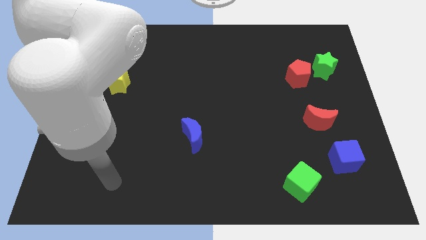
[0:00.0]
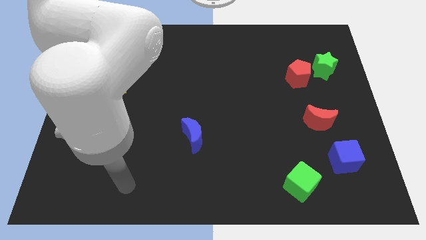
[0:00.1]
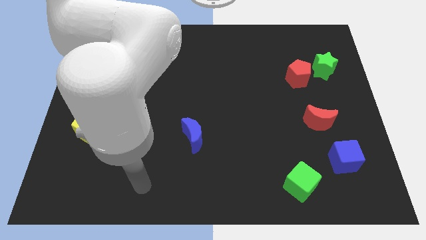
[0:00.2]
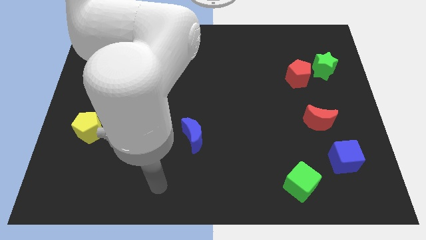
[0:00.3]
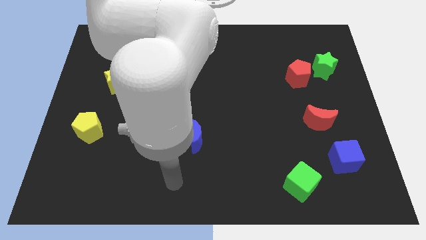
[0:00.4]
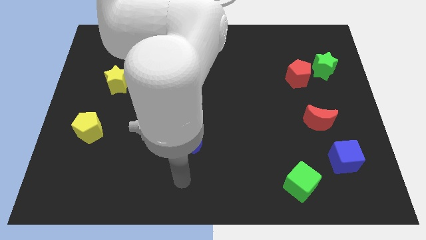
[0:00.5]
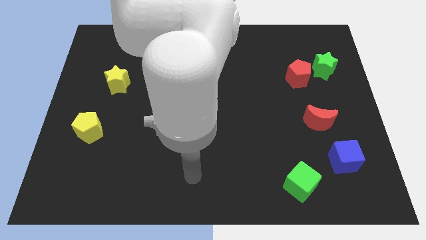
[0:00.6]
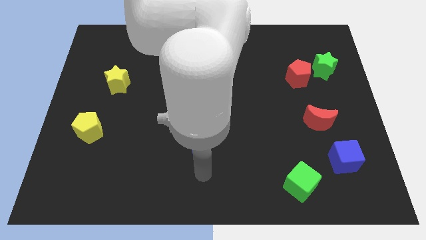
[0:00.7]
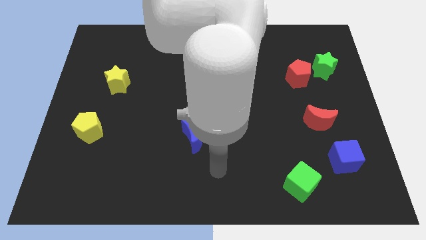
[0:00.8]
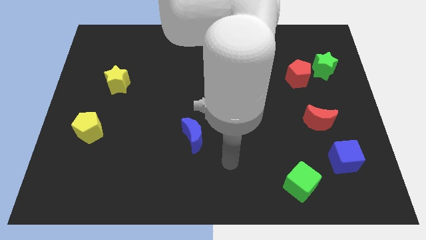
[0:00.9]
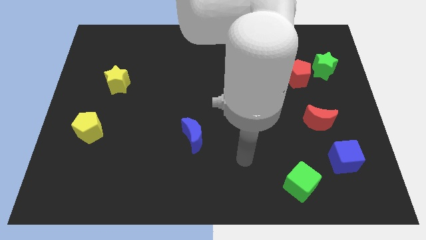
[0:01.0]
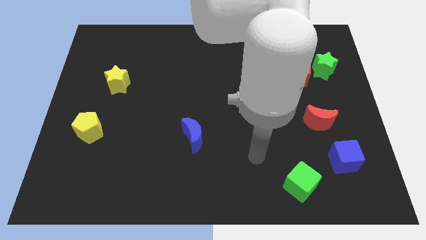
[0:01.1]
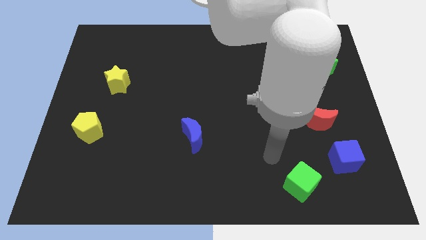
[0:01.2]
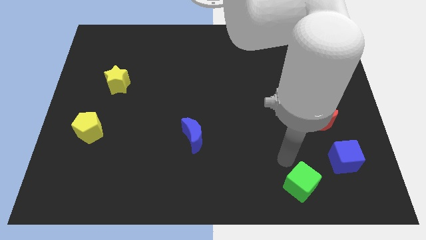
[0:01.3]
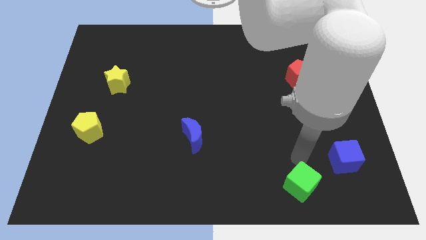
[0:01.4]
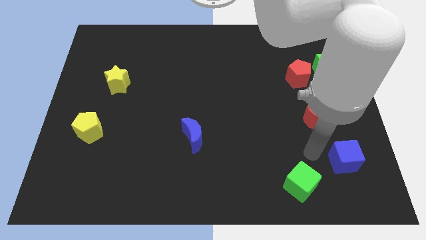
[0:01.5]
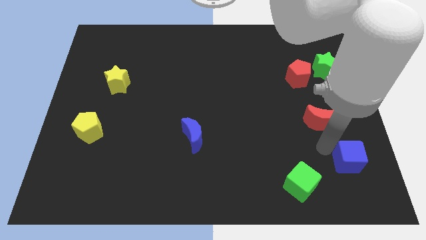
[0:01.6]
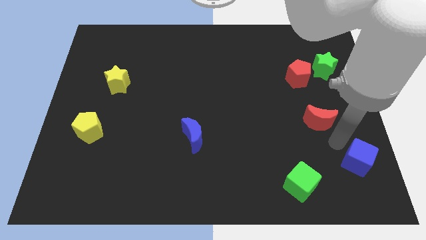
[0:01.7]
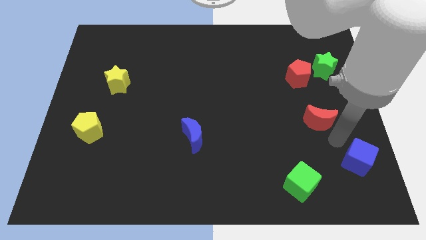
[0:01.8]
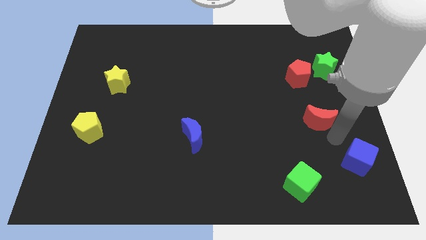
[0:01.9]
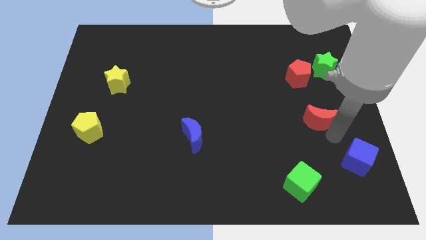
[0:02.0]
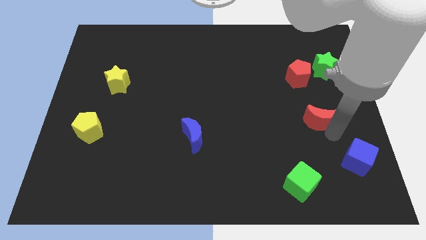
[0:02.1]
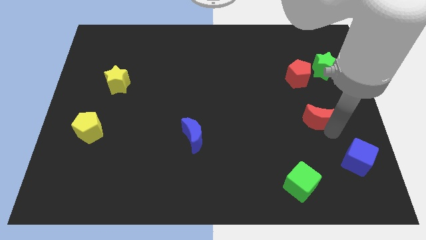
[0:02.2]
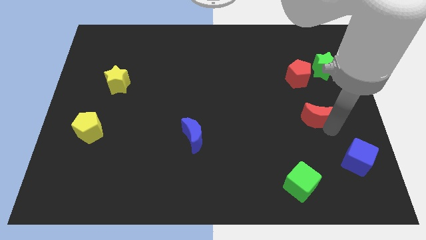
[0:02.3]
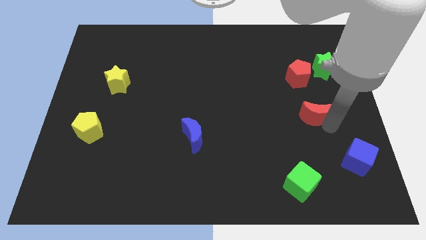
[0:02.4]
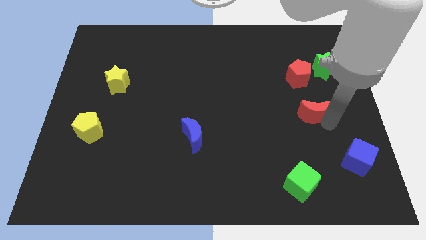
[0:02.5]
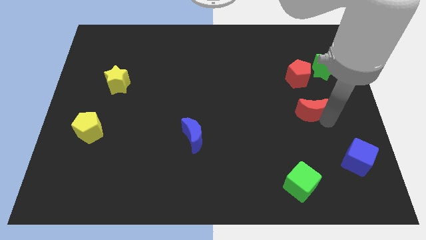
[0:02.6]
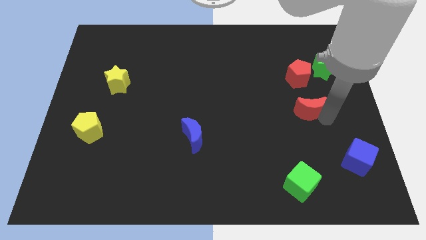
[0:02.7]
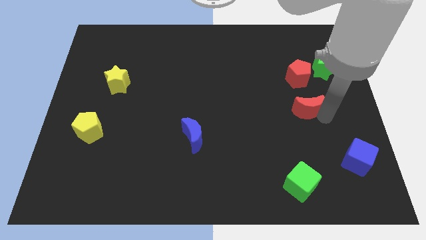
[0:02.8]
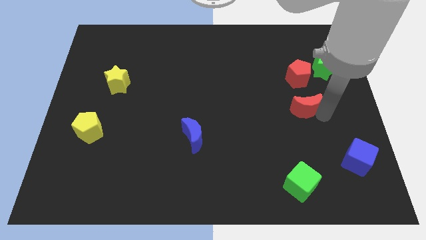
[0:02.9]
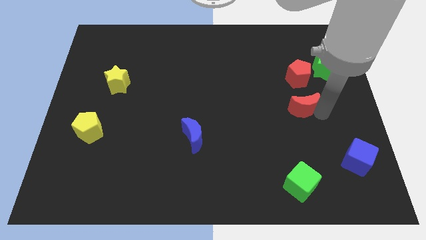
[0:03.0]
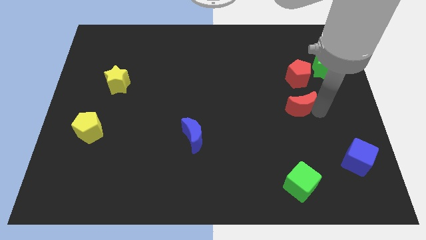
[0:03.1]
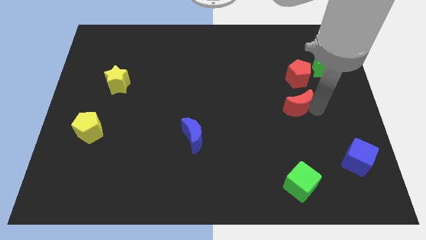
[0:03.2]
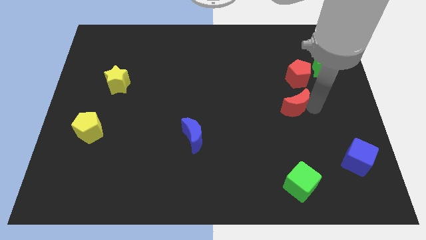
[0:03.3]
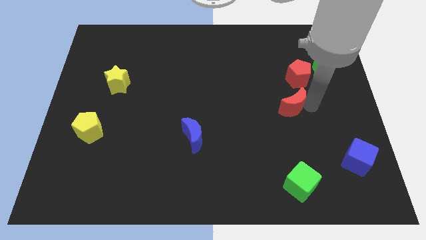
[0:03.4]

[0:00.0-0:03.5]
move the red moon upwards and left diagonally somewhat

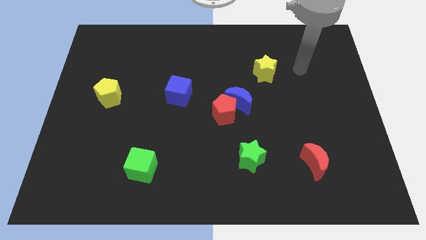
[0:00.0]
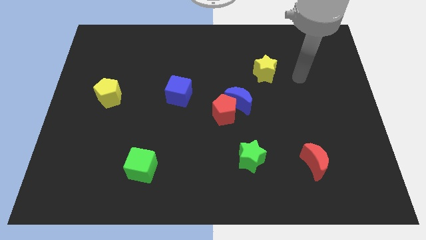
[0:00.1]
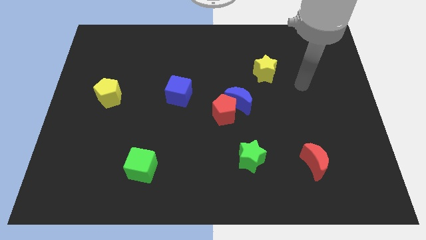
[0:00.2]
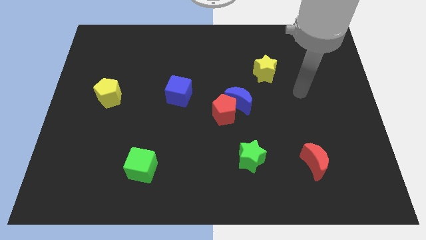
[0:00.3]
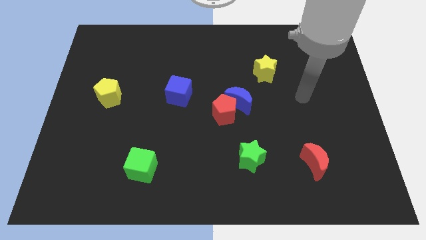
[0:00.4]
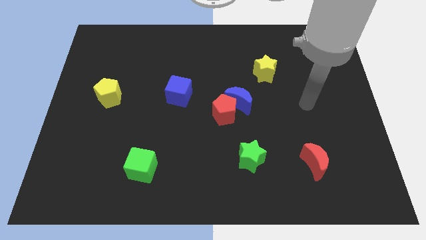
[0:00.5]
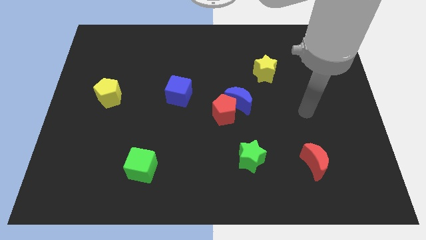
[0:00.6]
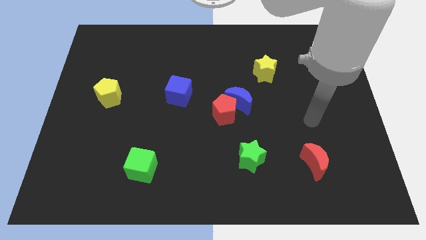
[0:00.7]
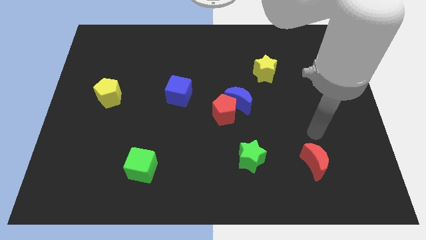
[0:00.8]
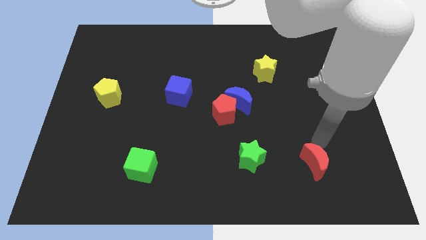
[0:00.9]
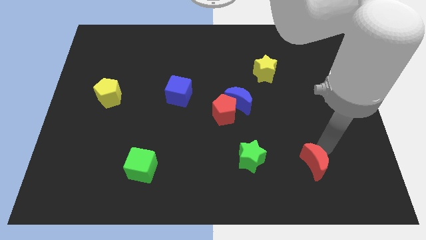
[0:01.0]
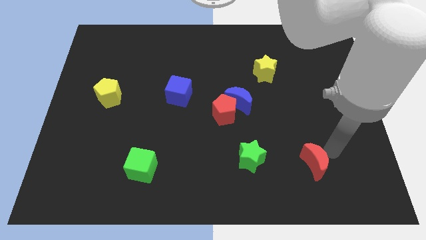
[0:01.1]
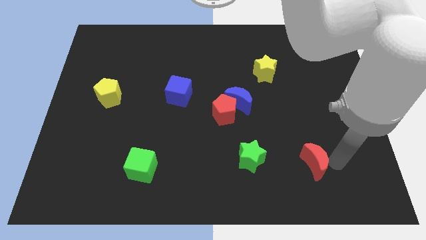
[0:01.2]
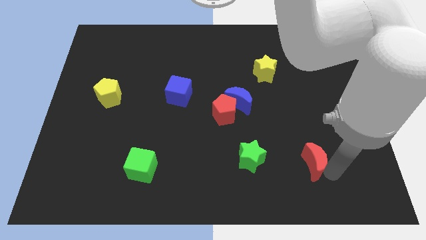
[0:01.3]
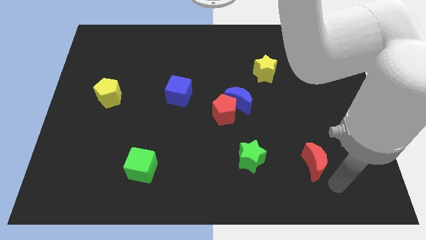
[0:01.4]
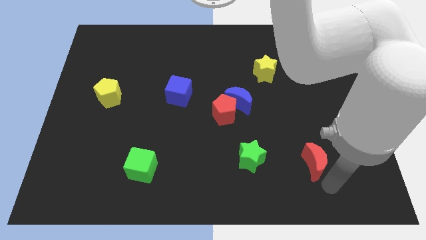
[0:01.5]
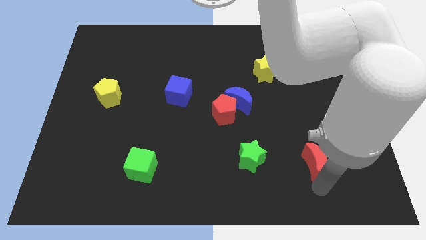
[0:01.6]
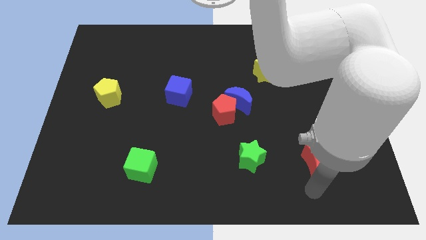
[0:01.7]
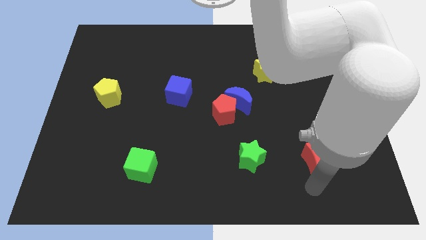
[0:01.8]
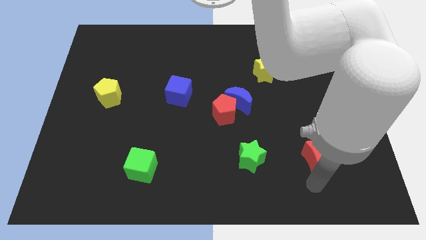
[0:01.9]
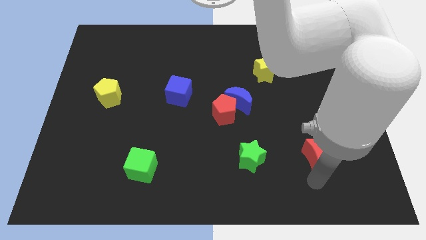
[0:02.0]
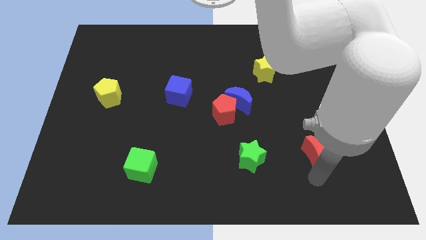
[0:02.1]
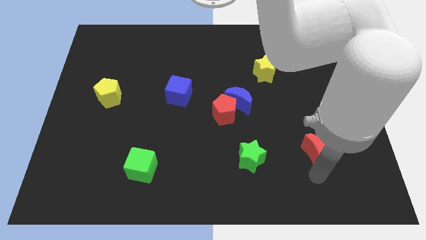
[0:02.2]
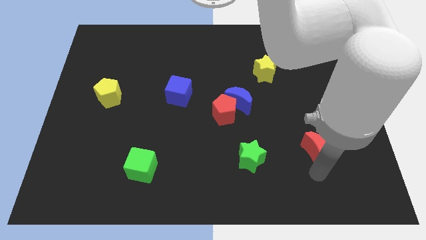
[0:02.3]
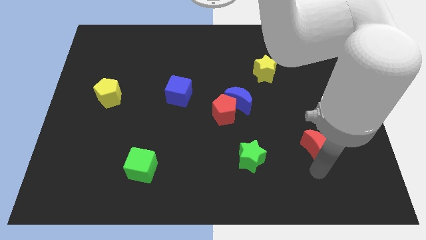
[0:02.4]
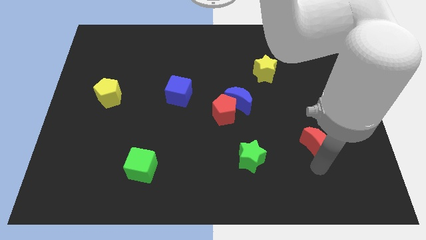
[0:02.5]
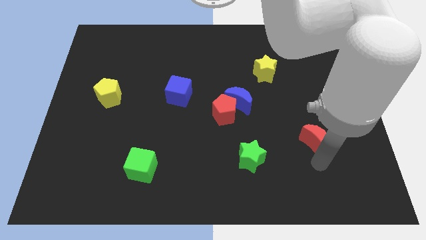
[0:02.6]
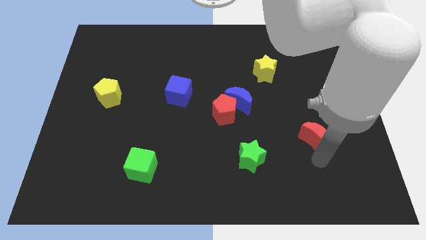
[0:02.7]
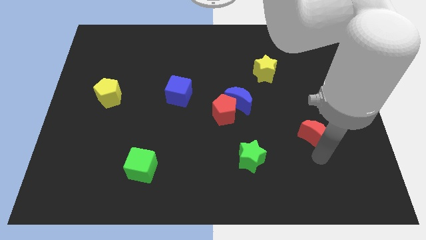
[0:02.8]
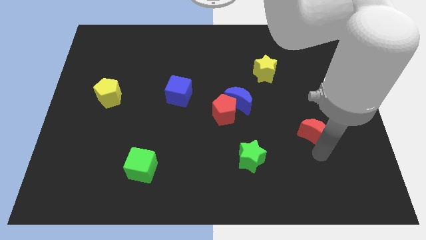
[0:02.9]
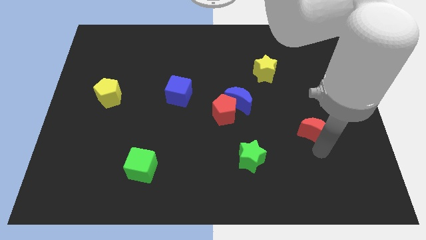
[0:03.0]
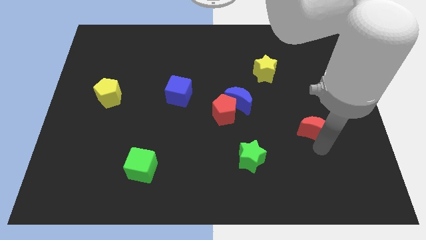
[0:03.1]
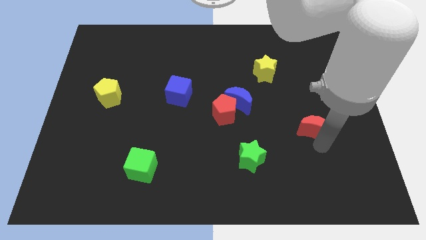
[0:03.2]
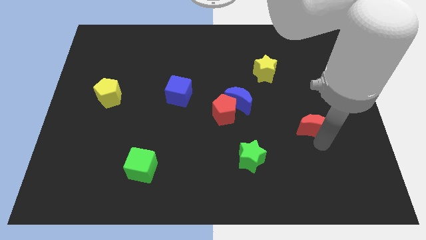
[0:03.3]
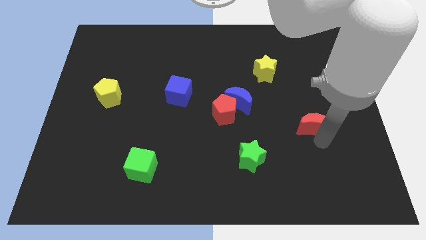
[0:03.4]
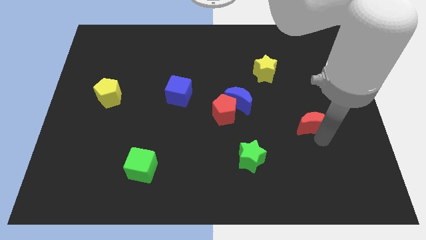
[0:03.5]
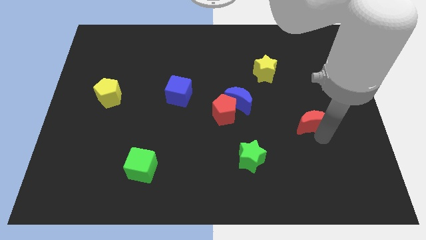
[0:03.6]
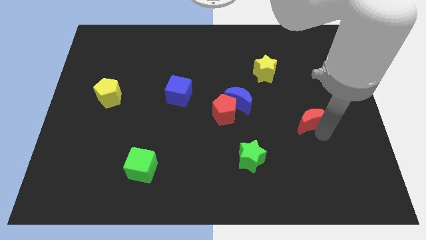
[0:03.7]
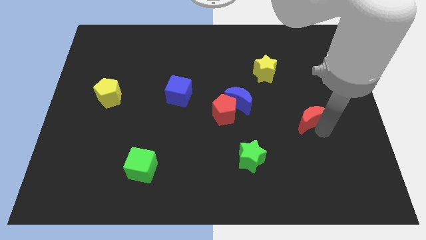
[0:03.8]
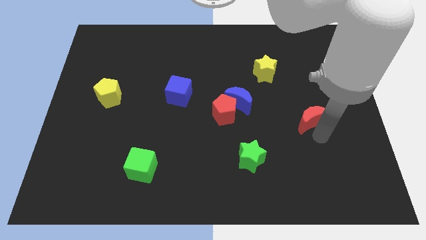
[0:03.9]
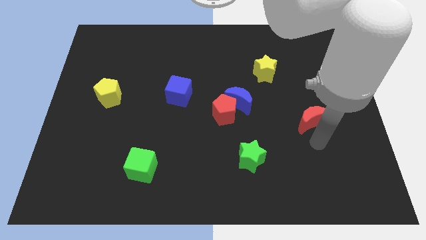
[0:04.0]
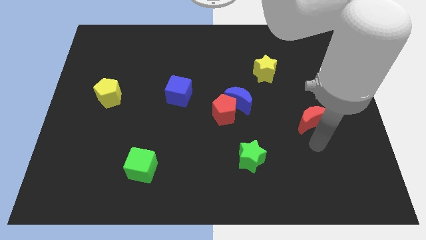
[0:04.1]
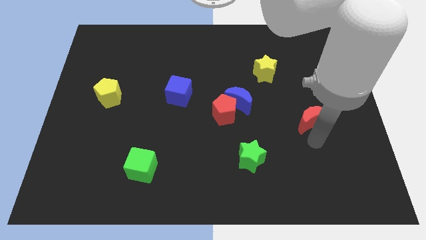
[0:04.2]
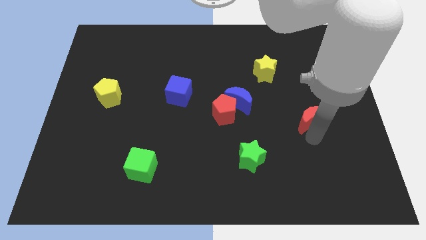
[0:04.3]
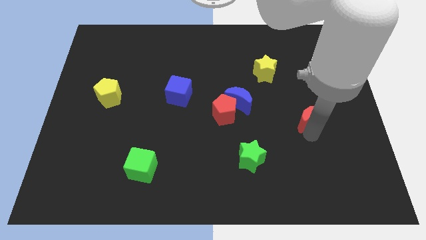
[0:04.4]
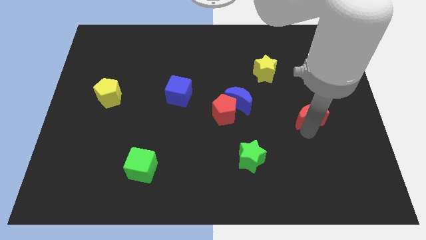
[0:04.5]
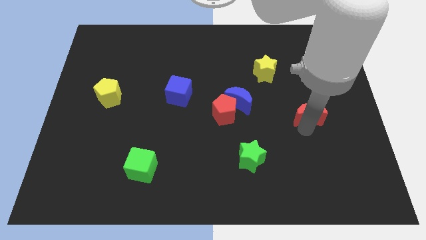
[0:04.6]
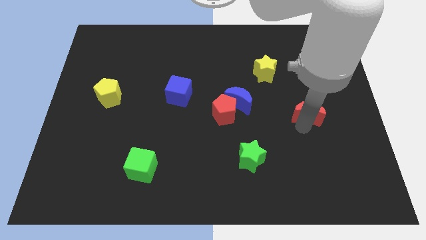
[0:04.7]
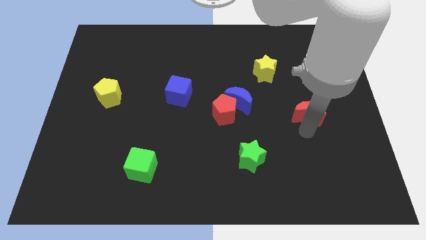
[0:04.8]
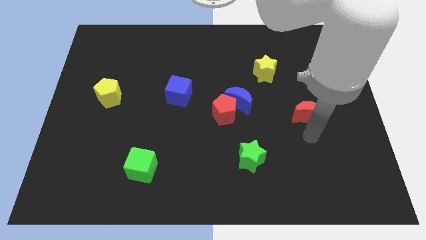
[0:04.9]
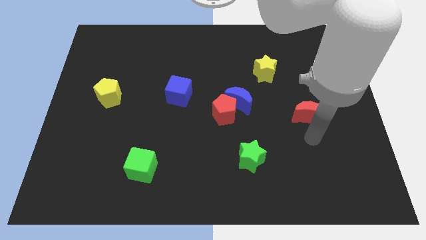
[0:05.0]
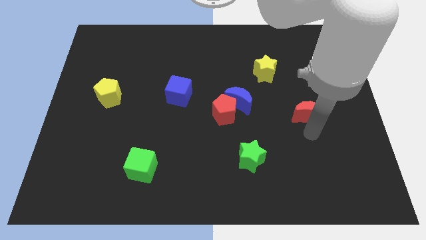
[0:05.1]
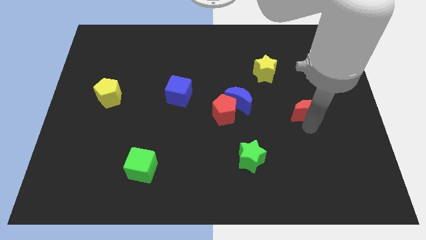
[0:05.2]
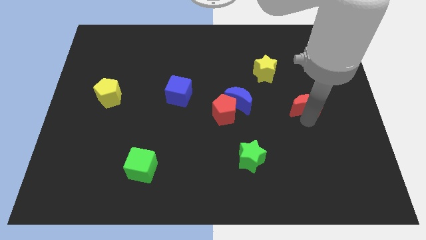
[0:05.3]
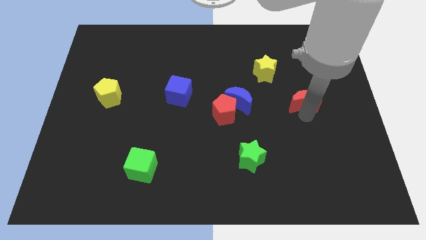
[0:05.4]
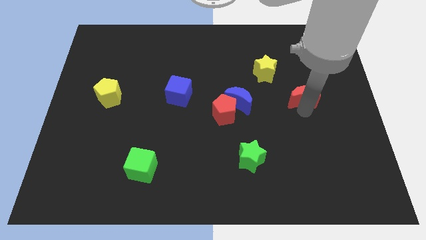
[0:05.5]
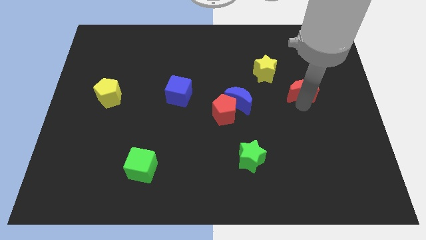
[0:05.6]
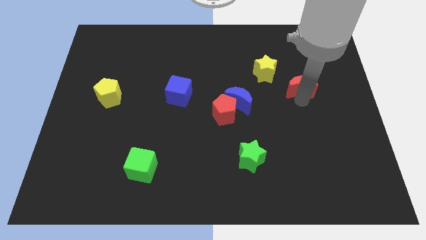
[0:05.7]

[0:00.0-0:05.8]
push the red moon up
